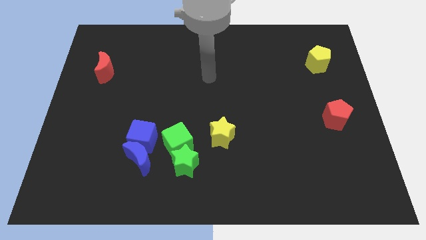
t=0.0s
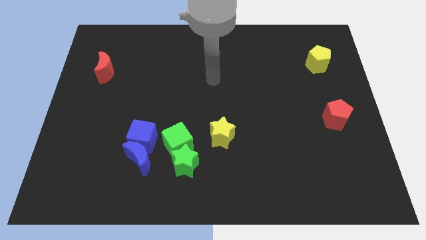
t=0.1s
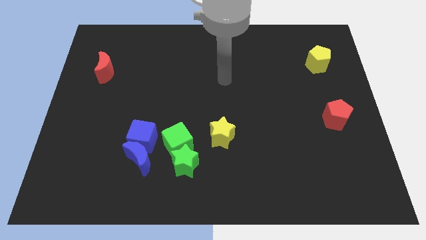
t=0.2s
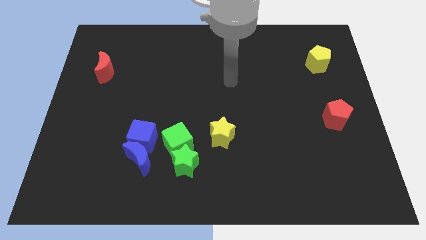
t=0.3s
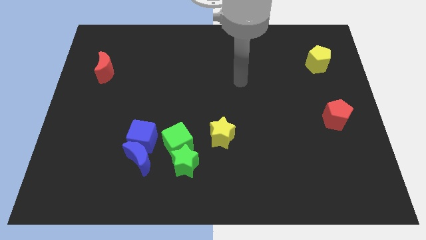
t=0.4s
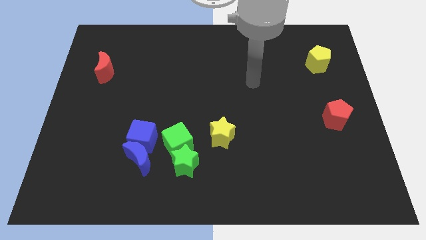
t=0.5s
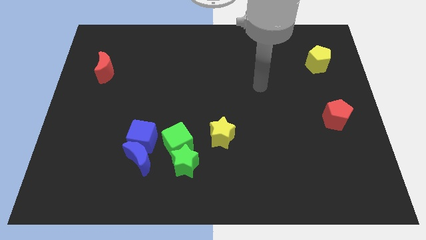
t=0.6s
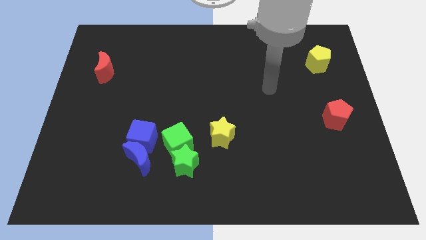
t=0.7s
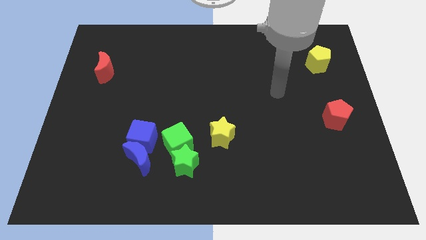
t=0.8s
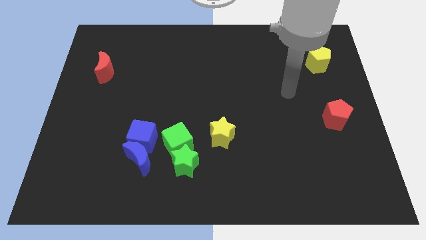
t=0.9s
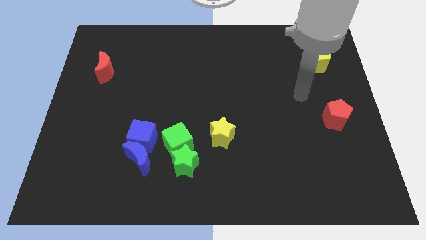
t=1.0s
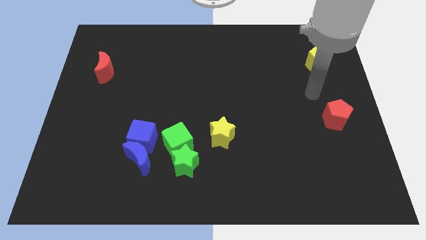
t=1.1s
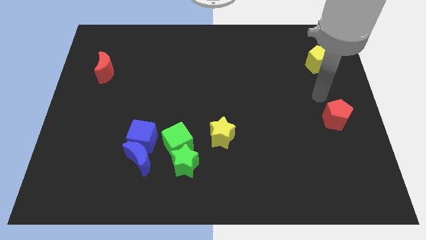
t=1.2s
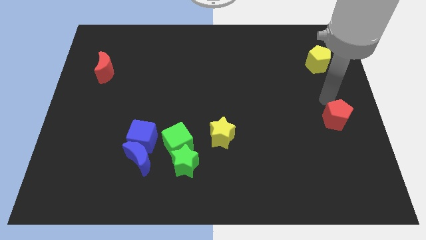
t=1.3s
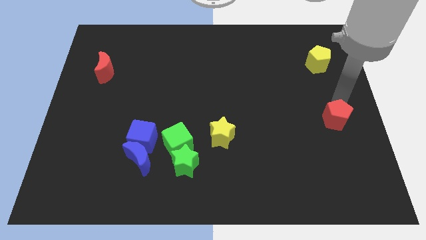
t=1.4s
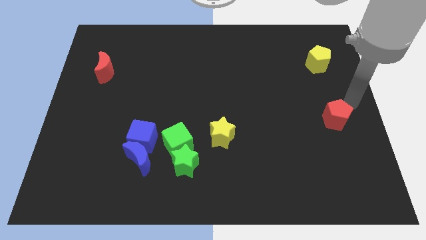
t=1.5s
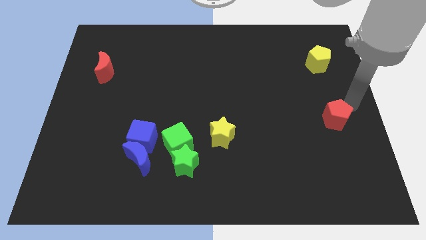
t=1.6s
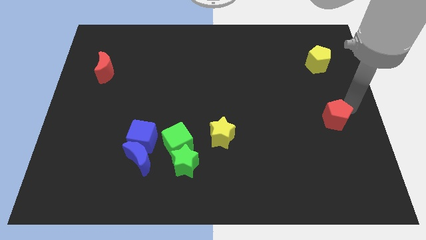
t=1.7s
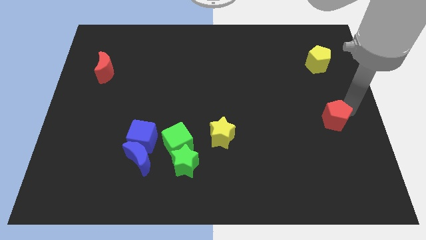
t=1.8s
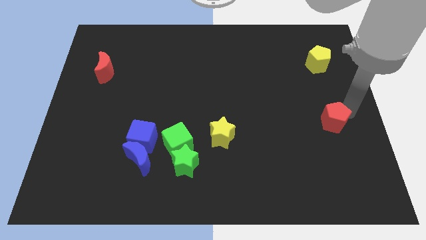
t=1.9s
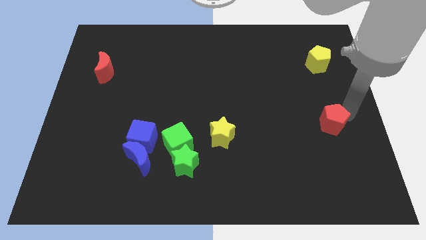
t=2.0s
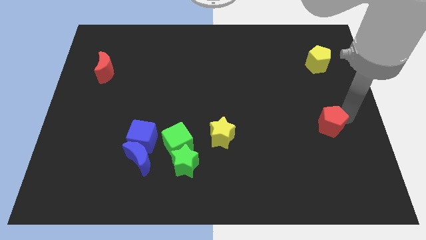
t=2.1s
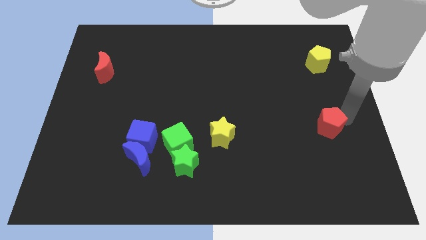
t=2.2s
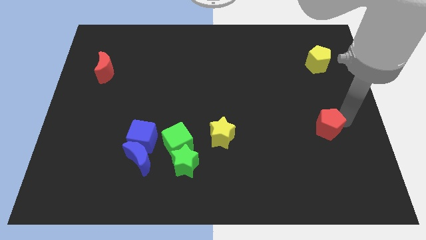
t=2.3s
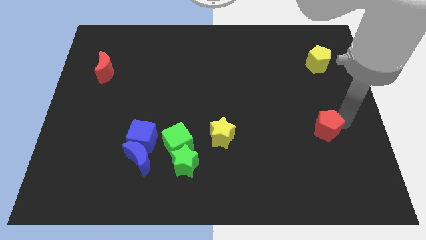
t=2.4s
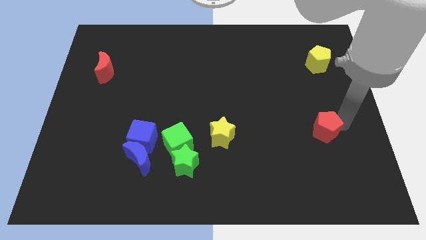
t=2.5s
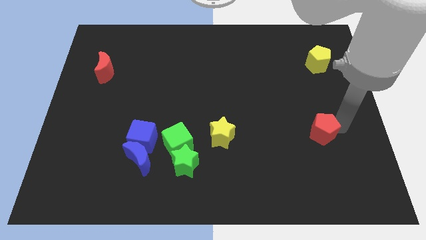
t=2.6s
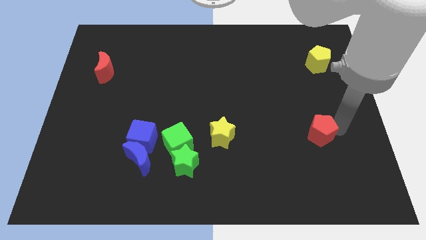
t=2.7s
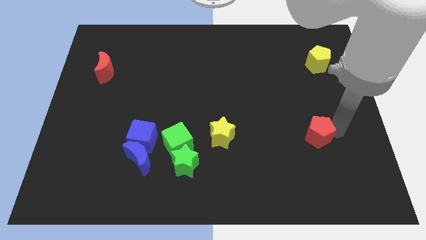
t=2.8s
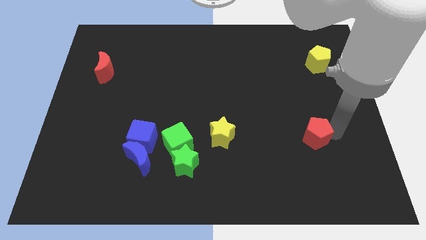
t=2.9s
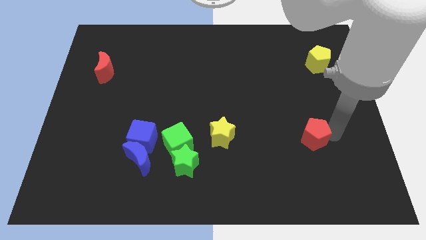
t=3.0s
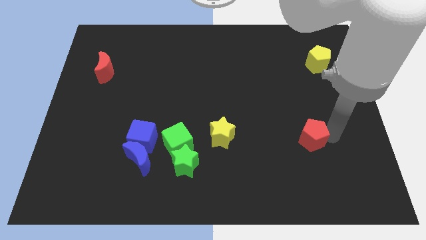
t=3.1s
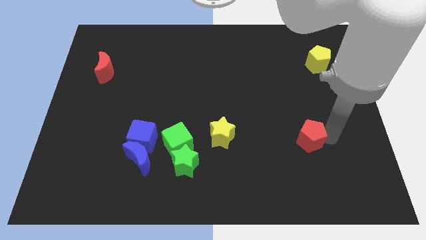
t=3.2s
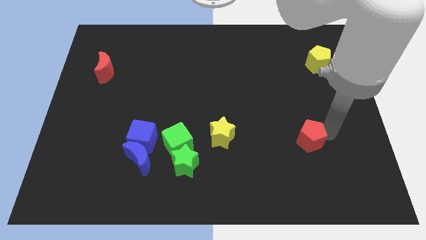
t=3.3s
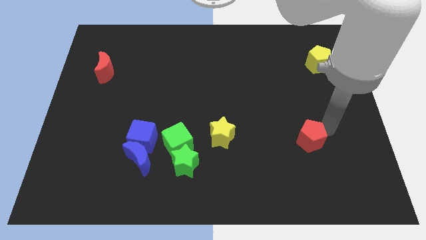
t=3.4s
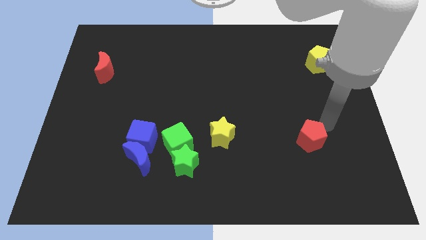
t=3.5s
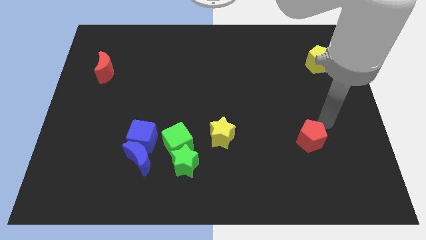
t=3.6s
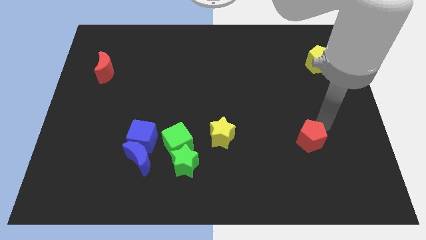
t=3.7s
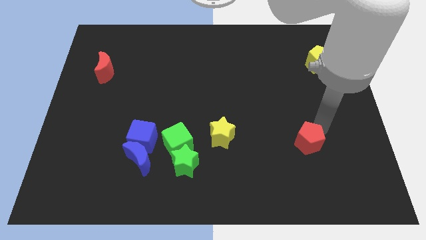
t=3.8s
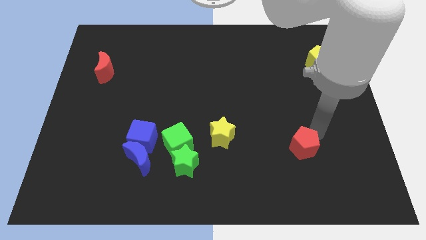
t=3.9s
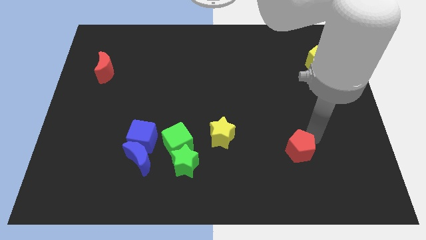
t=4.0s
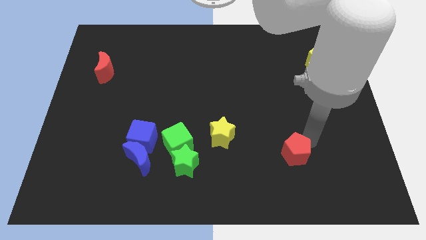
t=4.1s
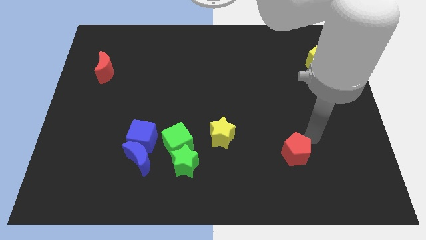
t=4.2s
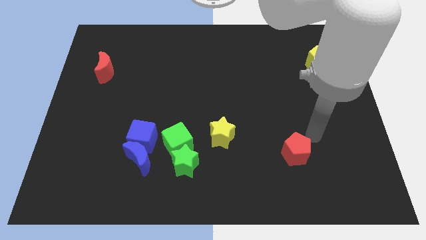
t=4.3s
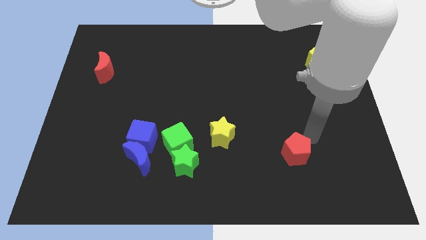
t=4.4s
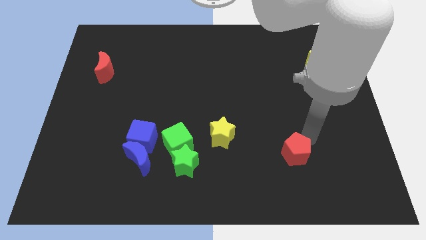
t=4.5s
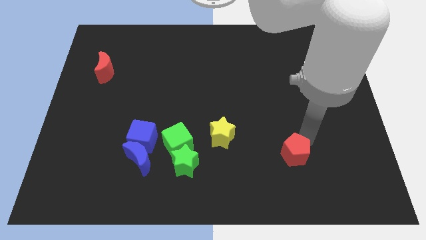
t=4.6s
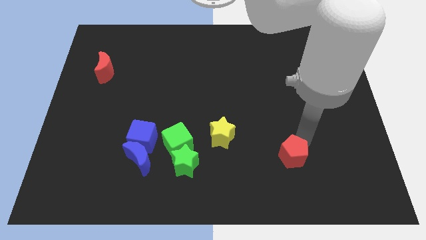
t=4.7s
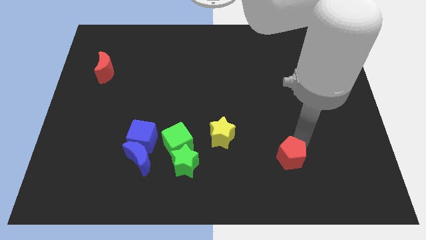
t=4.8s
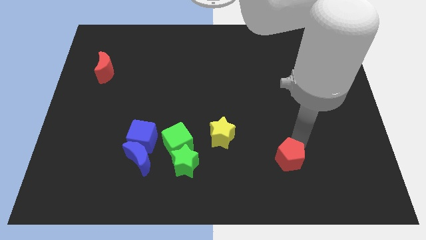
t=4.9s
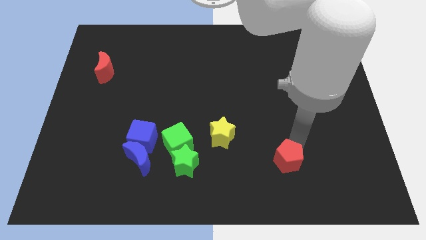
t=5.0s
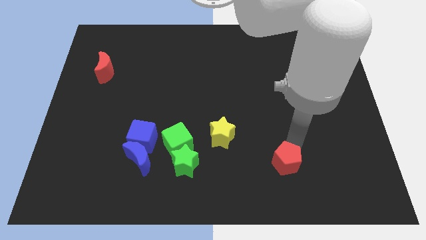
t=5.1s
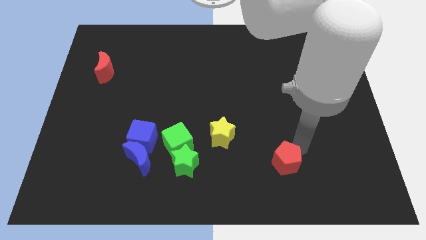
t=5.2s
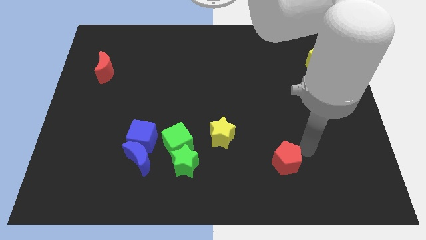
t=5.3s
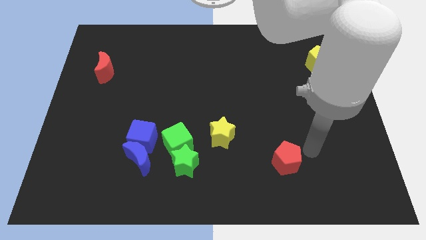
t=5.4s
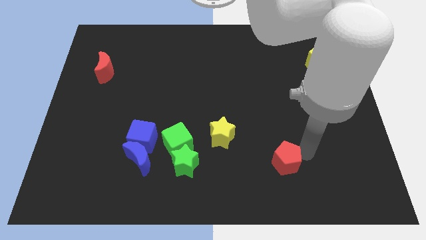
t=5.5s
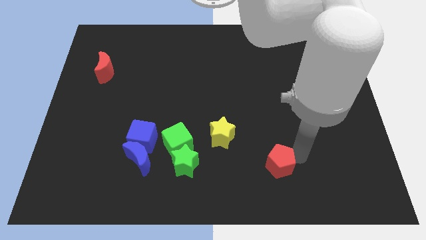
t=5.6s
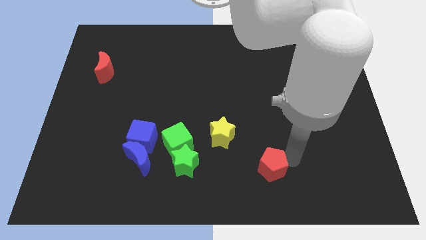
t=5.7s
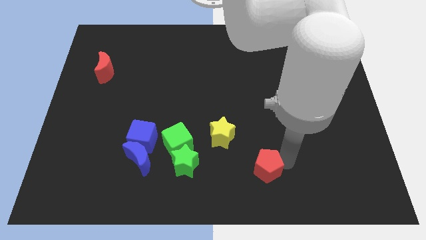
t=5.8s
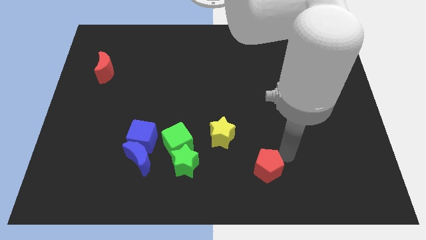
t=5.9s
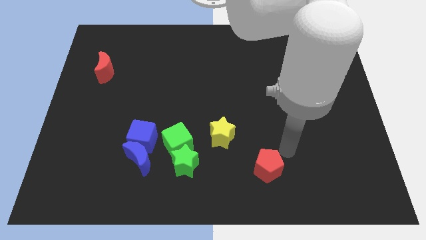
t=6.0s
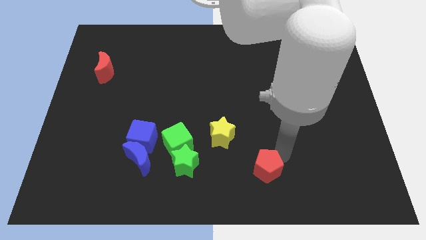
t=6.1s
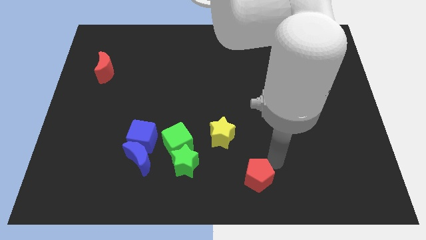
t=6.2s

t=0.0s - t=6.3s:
push the red pentagon to the bottom

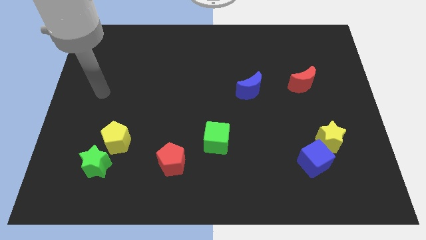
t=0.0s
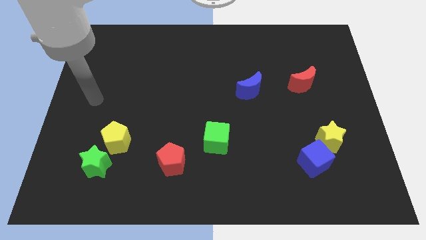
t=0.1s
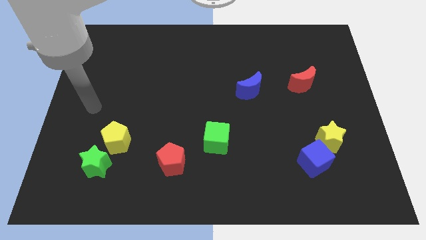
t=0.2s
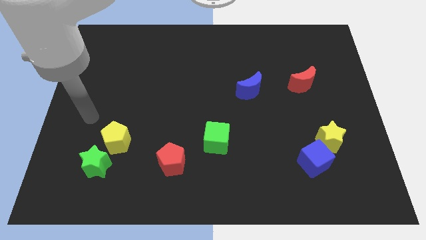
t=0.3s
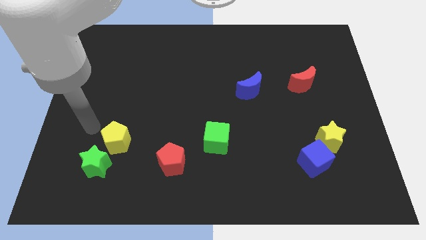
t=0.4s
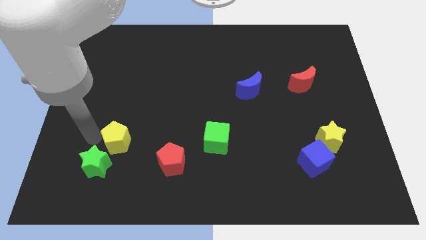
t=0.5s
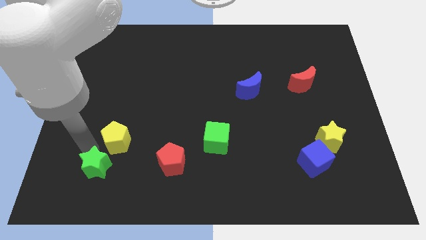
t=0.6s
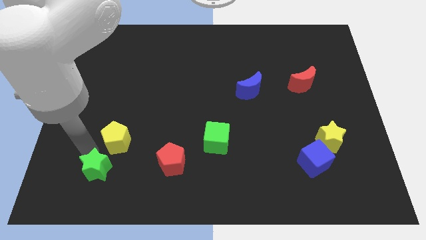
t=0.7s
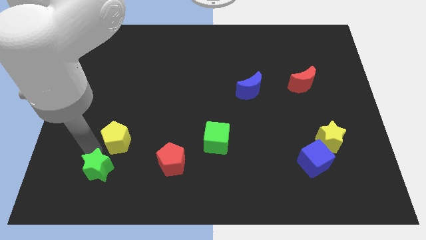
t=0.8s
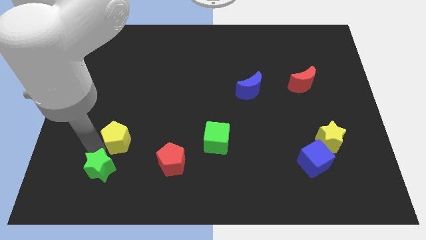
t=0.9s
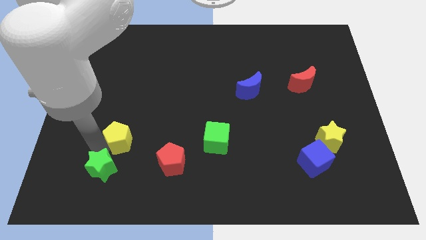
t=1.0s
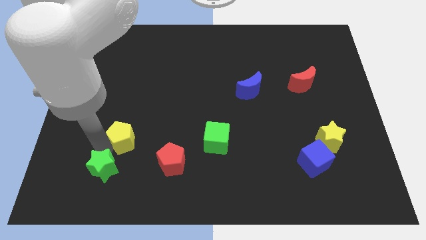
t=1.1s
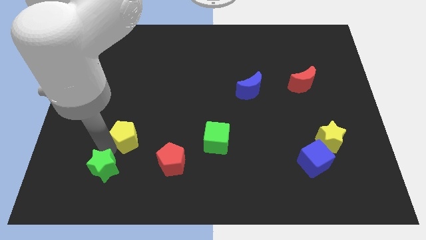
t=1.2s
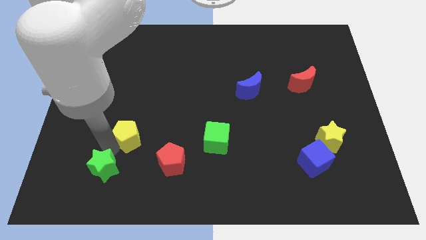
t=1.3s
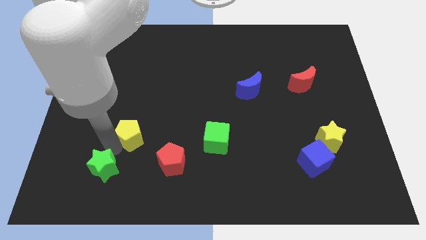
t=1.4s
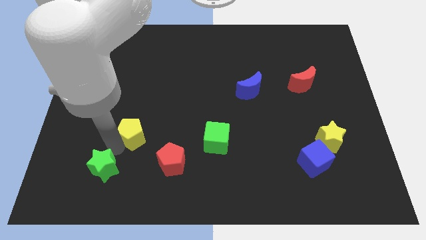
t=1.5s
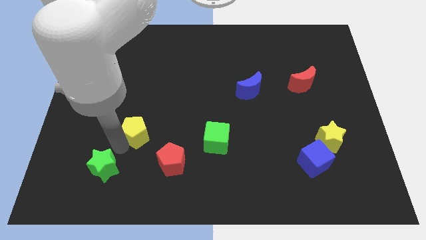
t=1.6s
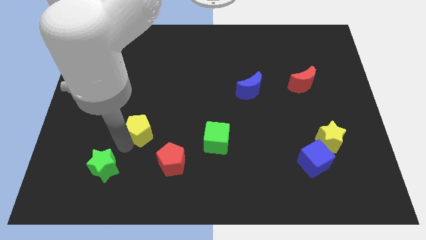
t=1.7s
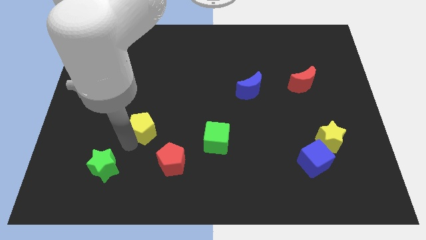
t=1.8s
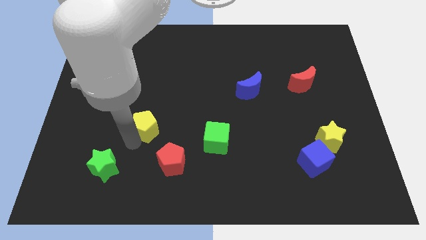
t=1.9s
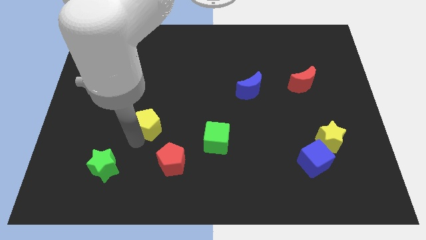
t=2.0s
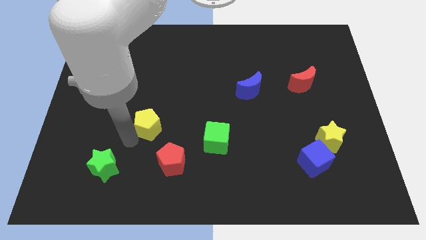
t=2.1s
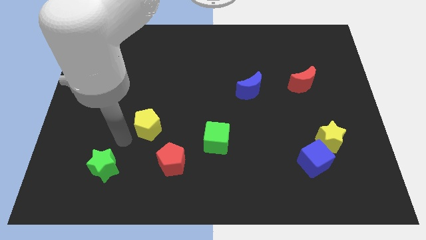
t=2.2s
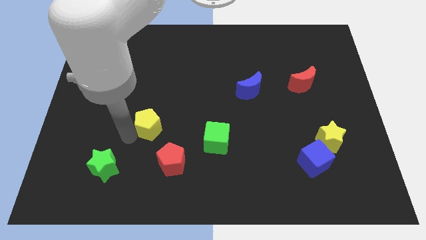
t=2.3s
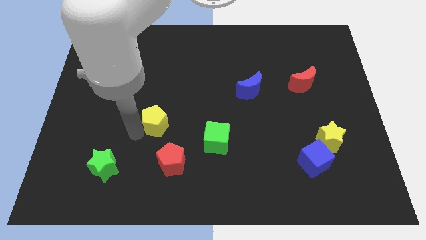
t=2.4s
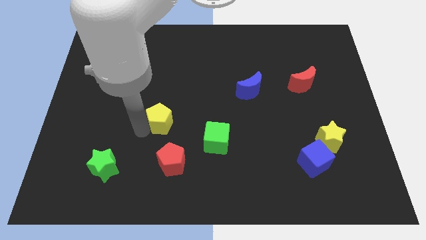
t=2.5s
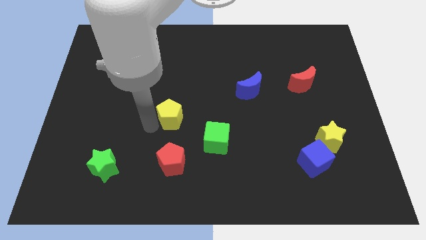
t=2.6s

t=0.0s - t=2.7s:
move the yellow pentagon to the center of the board
